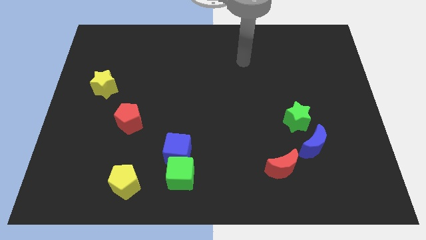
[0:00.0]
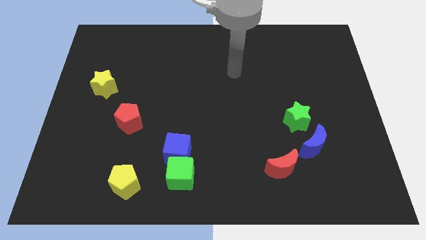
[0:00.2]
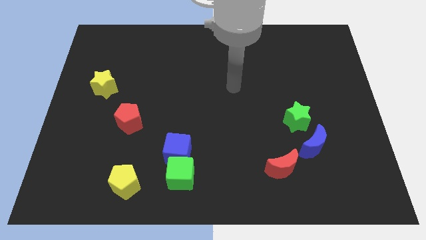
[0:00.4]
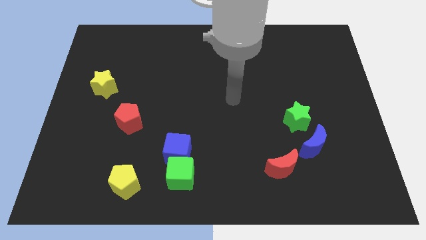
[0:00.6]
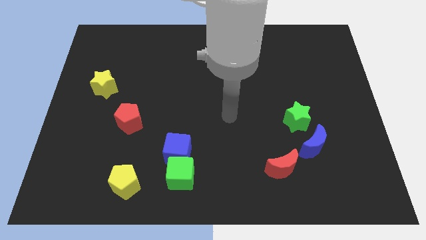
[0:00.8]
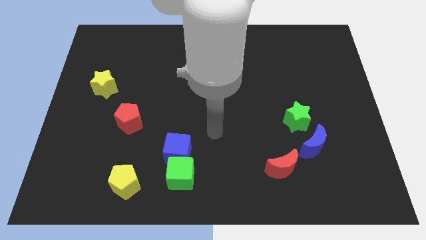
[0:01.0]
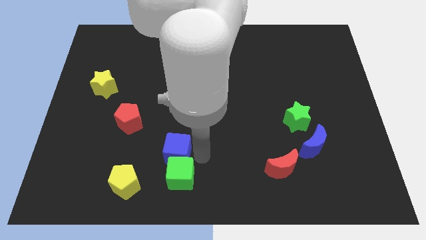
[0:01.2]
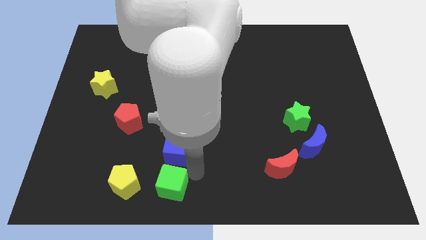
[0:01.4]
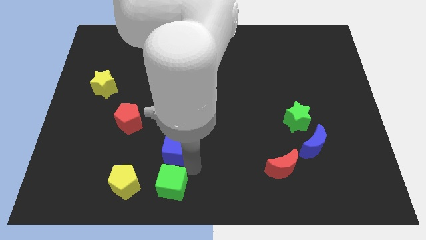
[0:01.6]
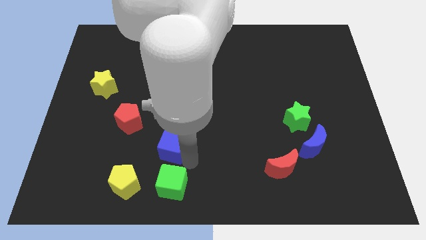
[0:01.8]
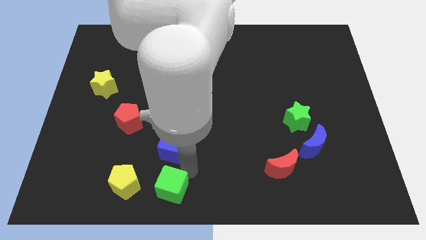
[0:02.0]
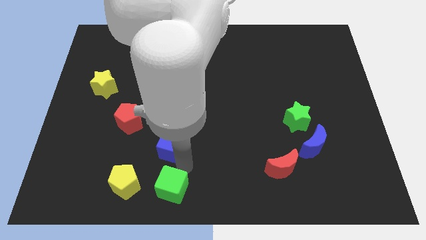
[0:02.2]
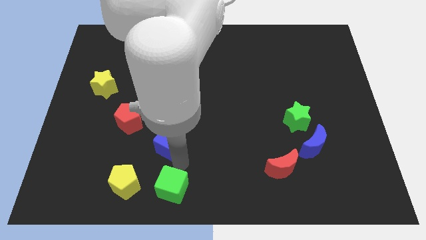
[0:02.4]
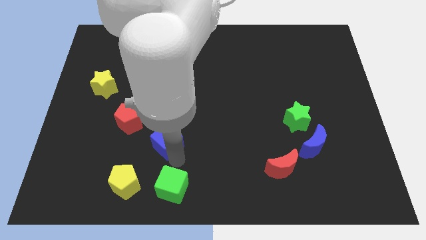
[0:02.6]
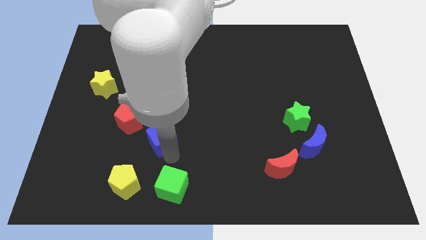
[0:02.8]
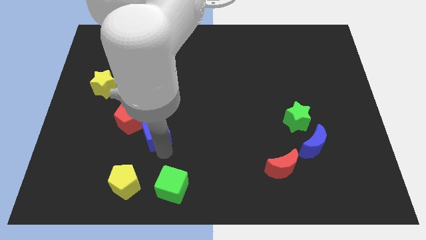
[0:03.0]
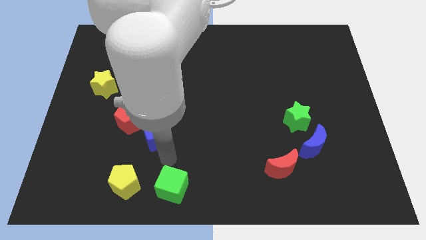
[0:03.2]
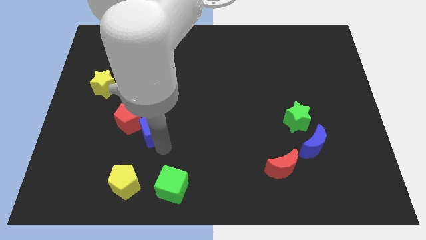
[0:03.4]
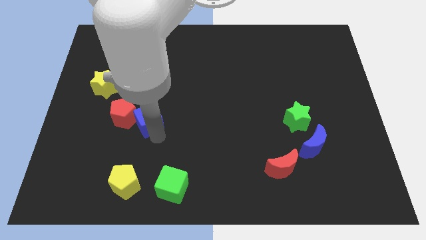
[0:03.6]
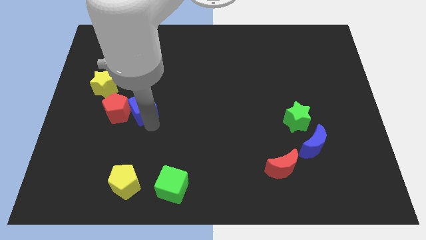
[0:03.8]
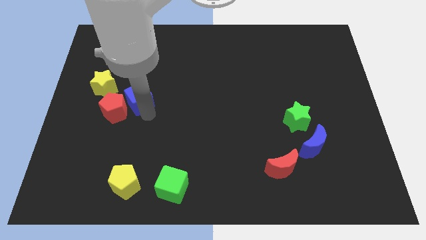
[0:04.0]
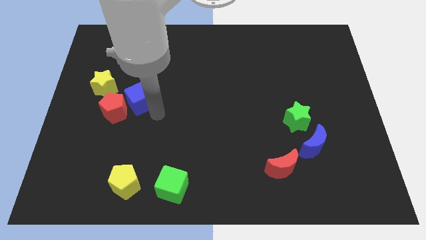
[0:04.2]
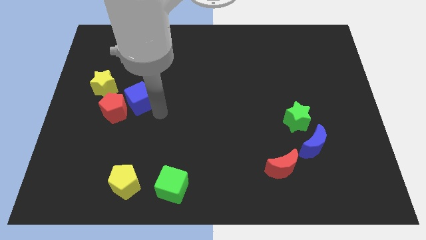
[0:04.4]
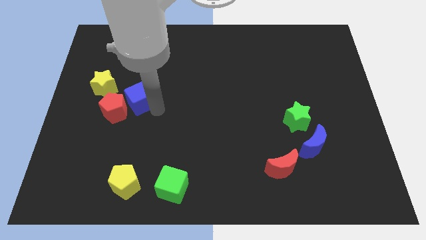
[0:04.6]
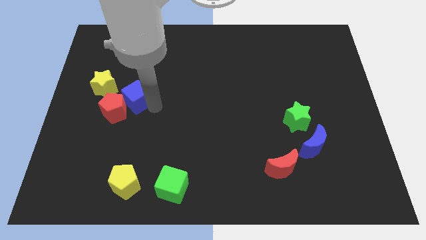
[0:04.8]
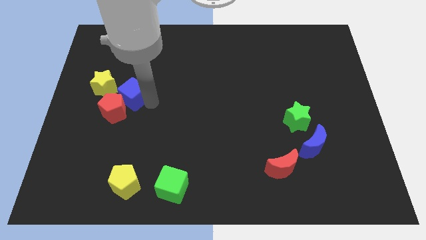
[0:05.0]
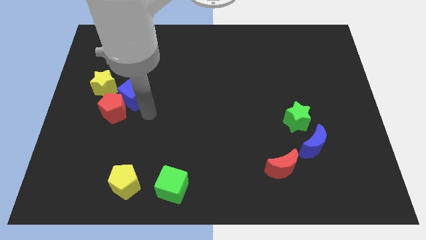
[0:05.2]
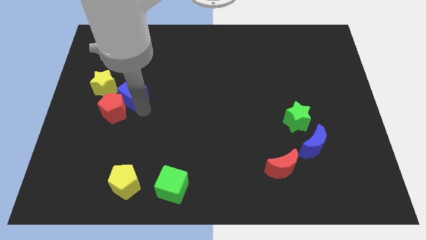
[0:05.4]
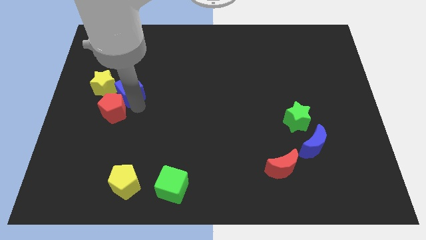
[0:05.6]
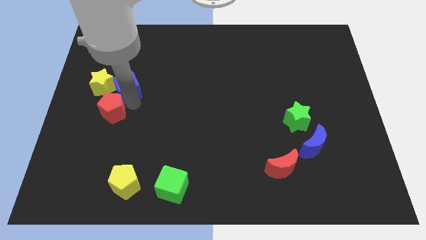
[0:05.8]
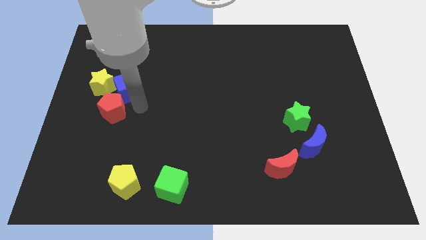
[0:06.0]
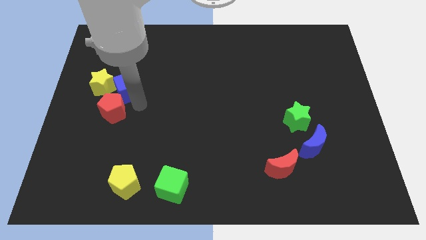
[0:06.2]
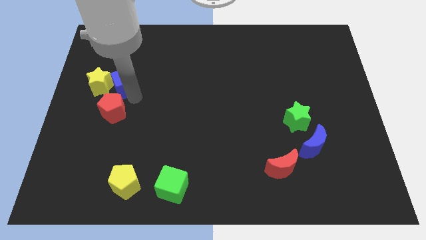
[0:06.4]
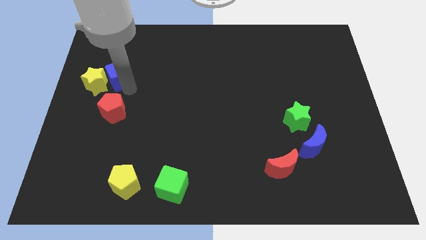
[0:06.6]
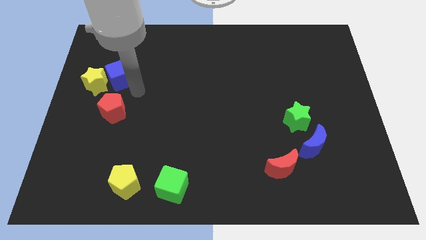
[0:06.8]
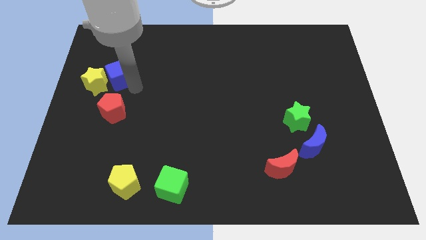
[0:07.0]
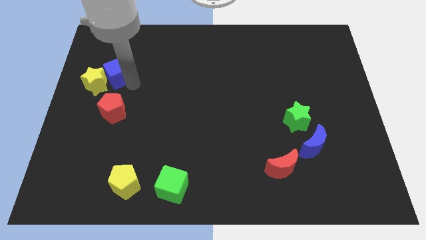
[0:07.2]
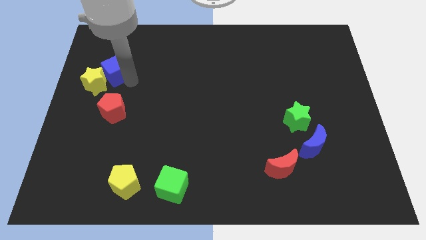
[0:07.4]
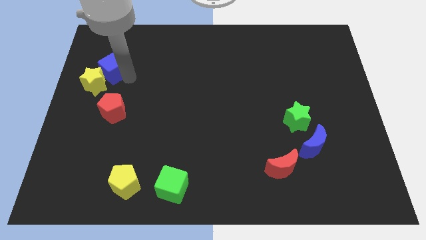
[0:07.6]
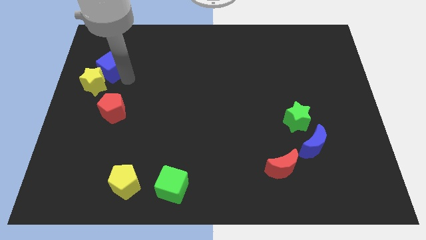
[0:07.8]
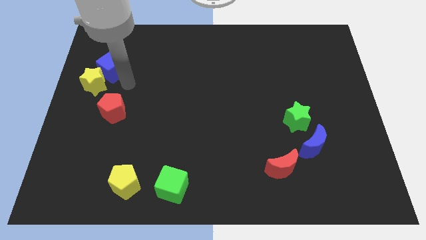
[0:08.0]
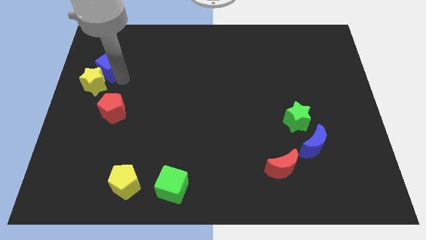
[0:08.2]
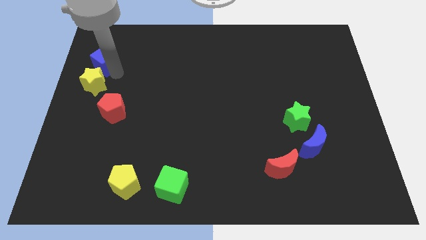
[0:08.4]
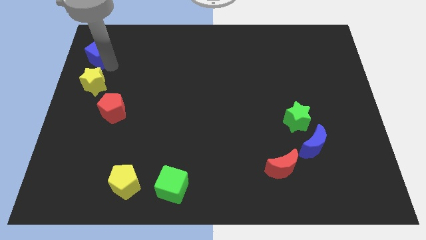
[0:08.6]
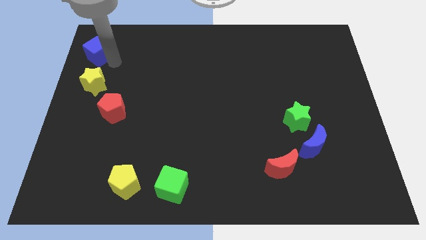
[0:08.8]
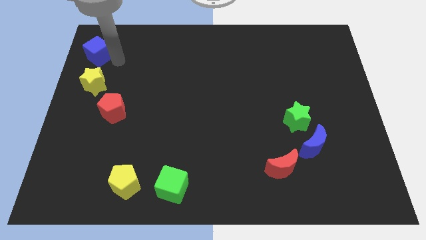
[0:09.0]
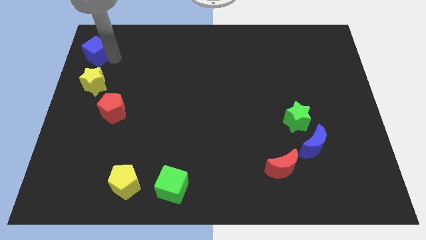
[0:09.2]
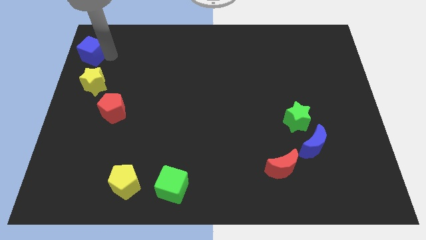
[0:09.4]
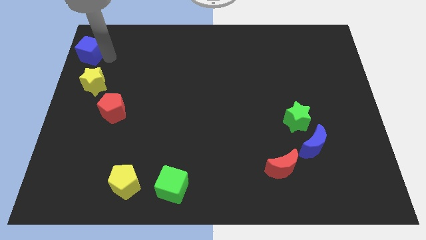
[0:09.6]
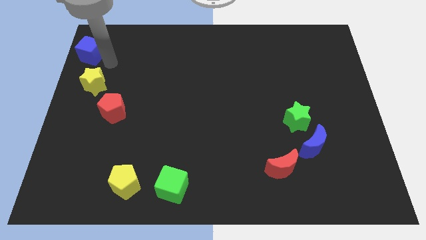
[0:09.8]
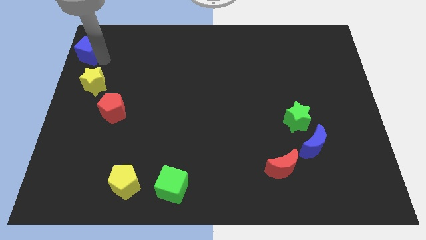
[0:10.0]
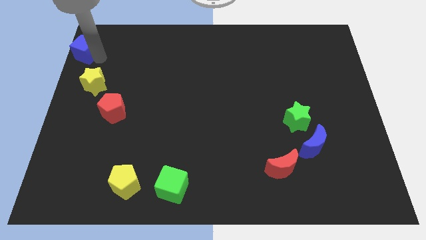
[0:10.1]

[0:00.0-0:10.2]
push the blue cube to the top left corner

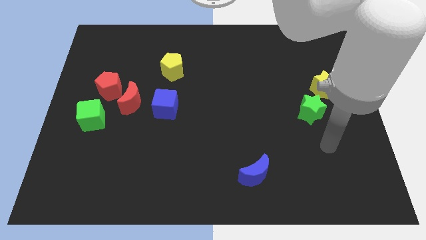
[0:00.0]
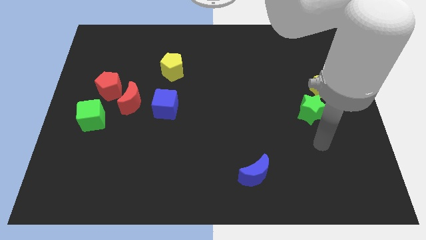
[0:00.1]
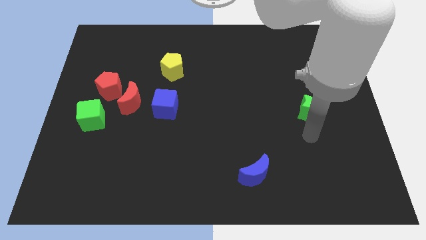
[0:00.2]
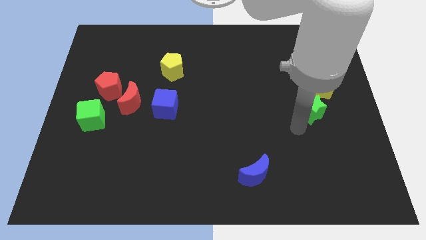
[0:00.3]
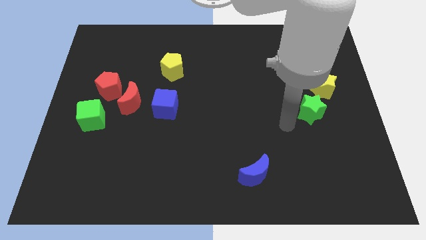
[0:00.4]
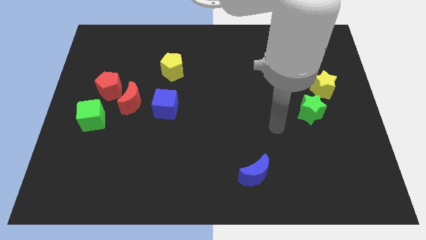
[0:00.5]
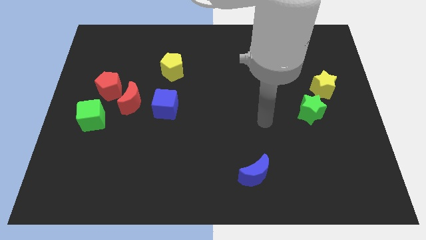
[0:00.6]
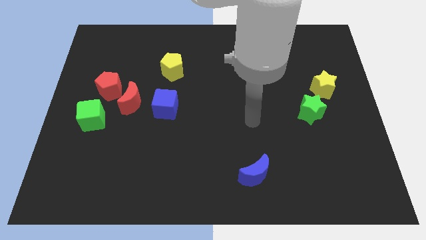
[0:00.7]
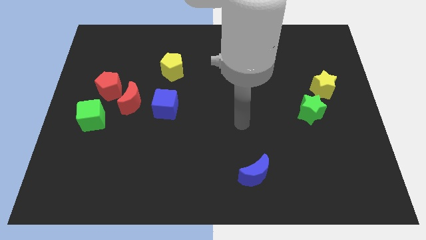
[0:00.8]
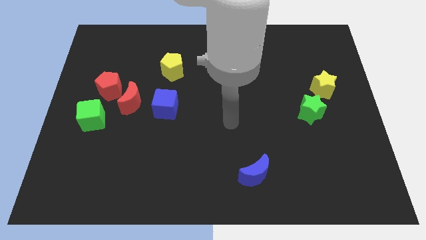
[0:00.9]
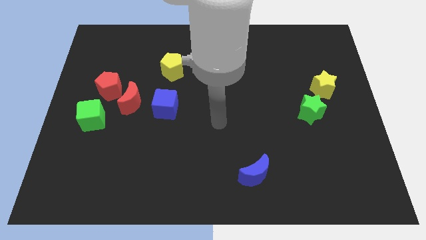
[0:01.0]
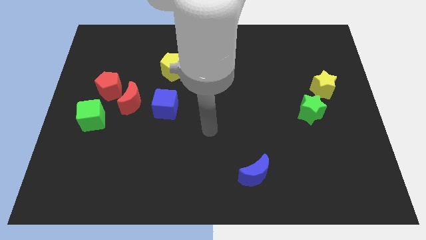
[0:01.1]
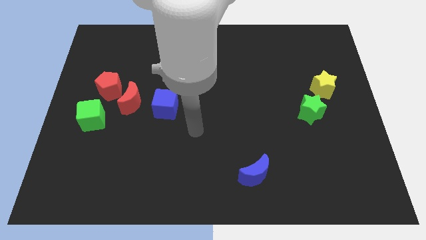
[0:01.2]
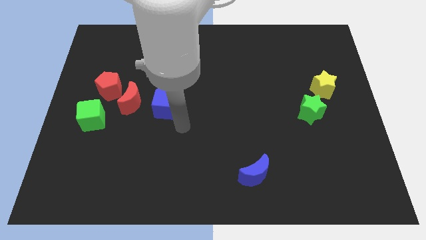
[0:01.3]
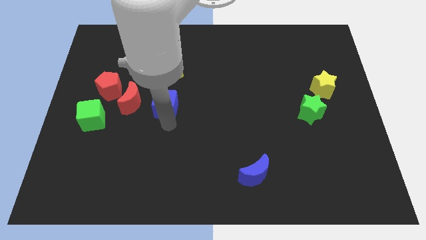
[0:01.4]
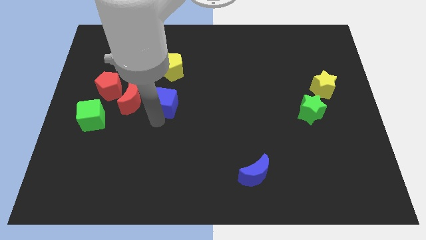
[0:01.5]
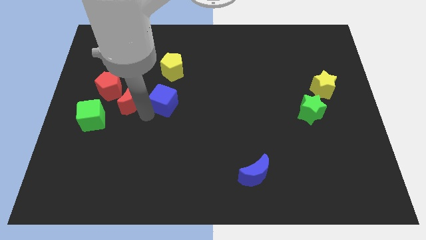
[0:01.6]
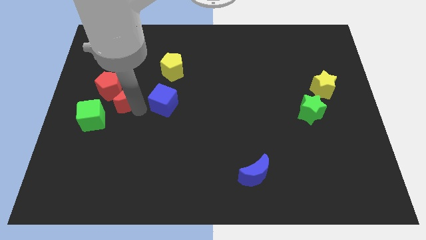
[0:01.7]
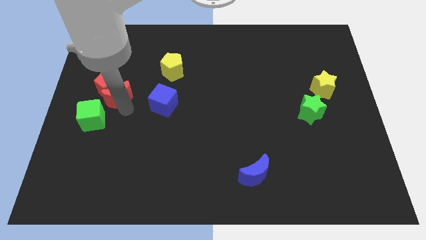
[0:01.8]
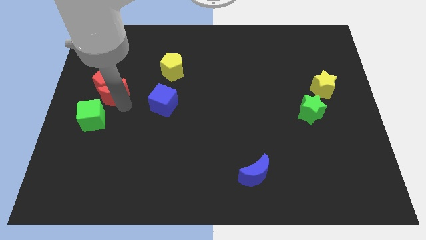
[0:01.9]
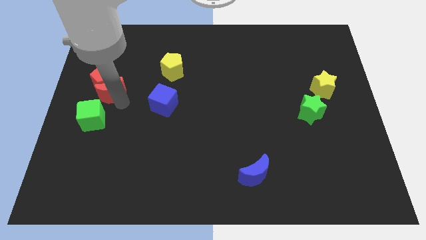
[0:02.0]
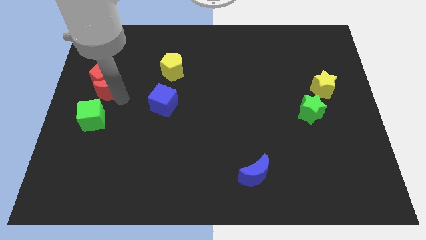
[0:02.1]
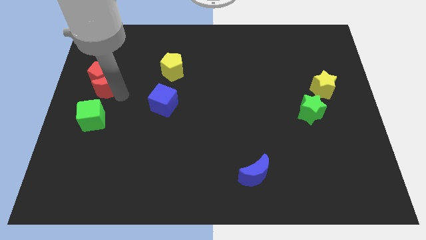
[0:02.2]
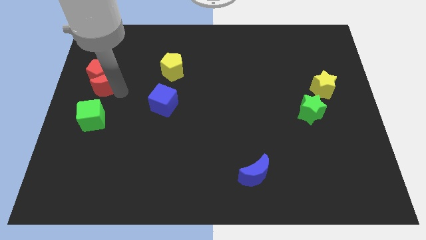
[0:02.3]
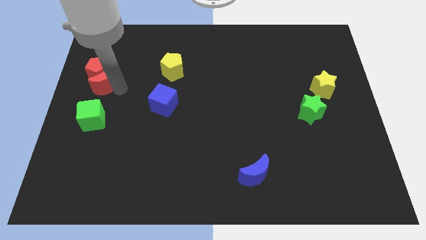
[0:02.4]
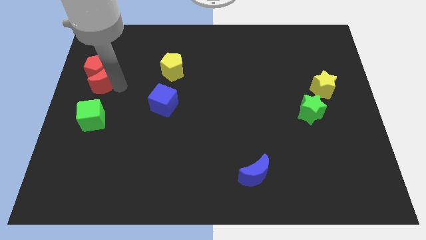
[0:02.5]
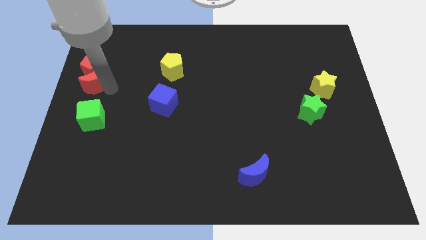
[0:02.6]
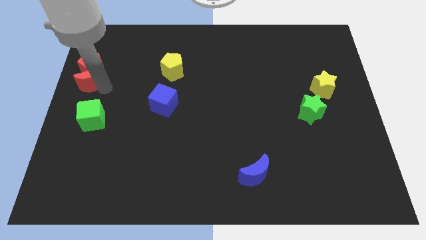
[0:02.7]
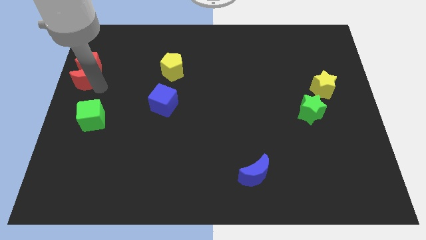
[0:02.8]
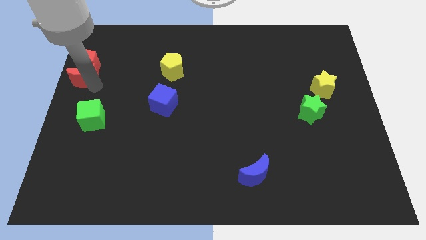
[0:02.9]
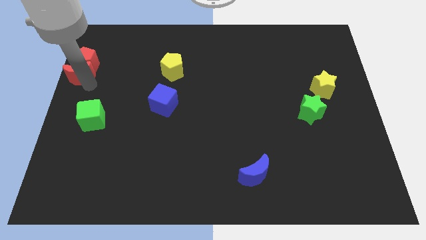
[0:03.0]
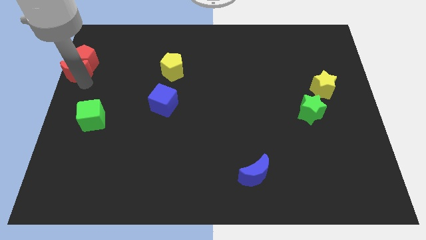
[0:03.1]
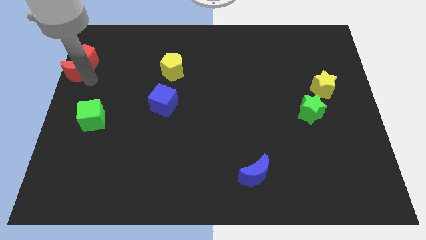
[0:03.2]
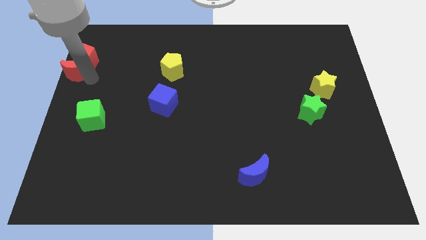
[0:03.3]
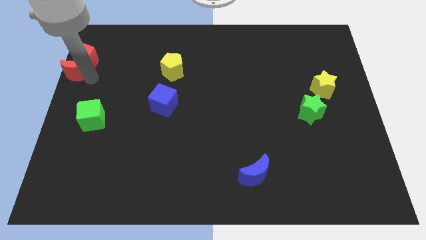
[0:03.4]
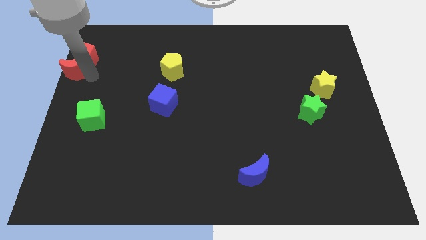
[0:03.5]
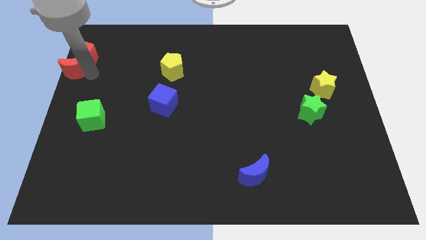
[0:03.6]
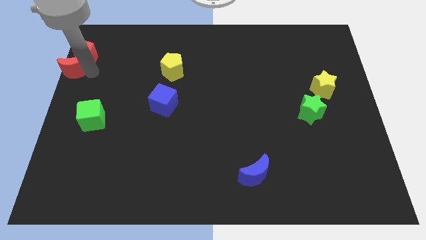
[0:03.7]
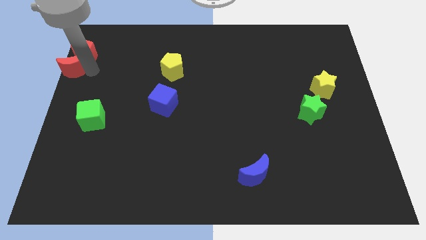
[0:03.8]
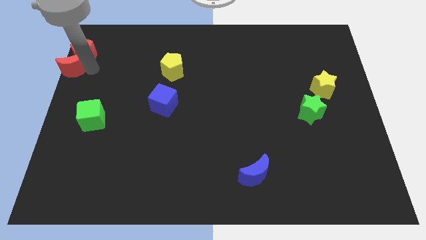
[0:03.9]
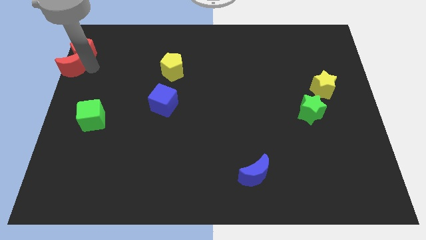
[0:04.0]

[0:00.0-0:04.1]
put the red pentagon to the top left corner
